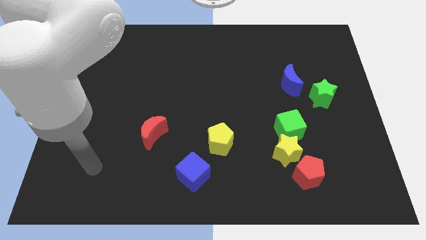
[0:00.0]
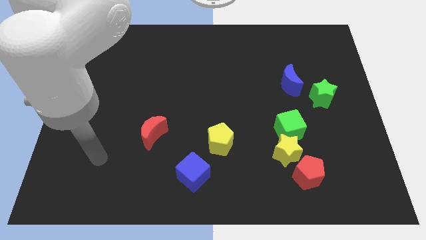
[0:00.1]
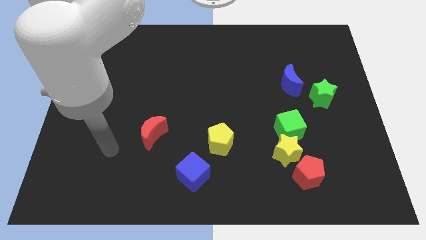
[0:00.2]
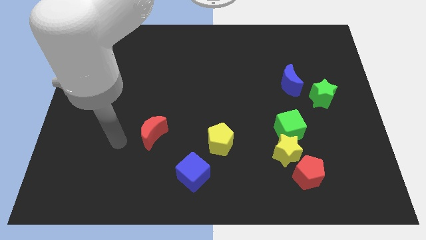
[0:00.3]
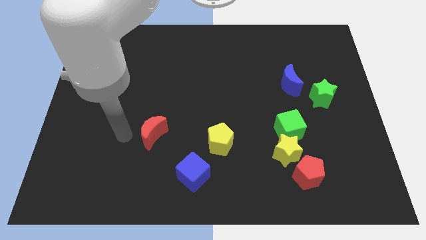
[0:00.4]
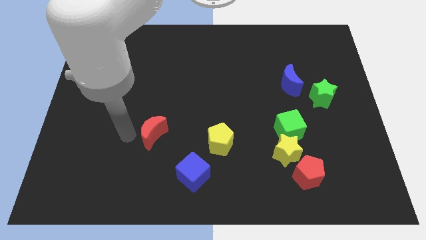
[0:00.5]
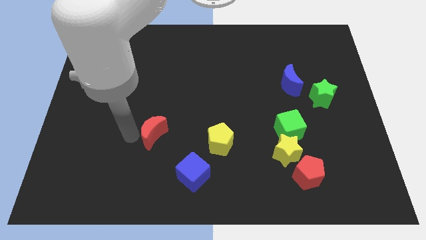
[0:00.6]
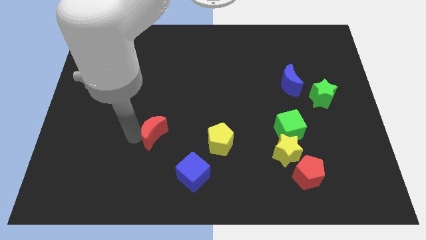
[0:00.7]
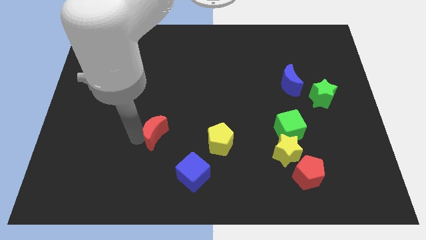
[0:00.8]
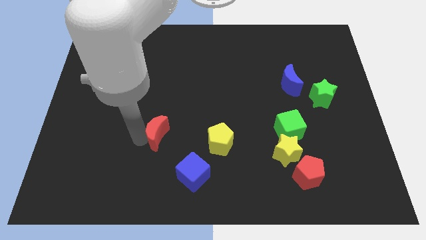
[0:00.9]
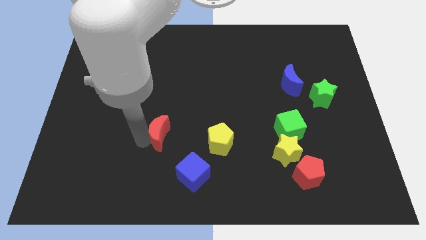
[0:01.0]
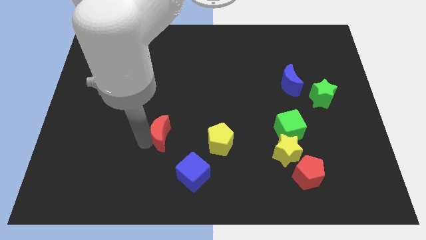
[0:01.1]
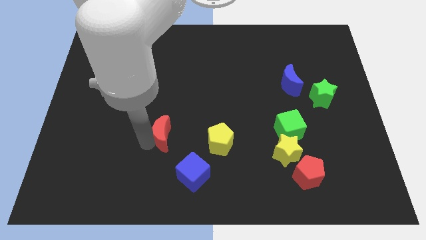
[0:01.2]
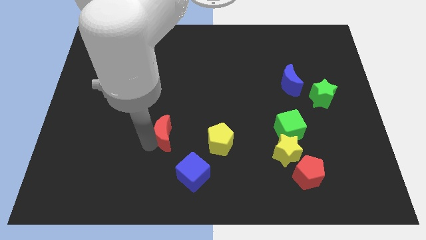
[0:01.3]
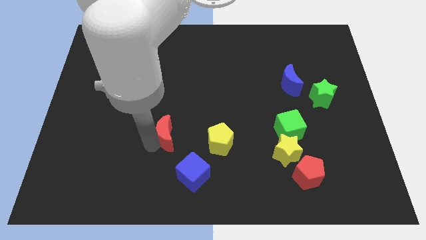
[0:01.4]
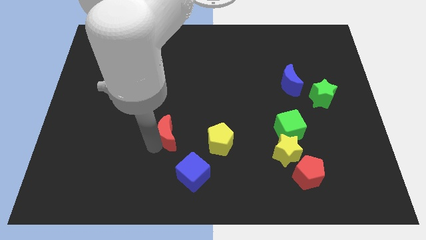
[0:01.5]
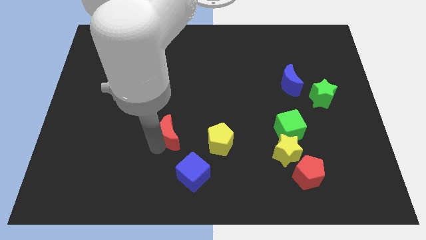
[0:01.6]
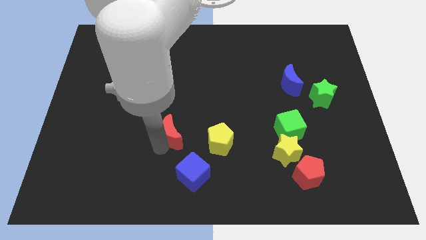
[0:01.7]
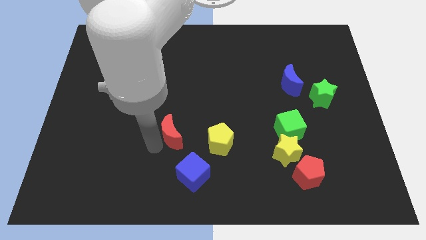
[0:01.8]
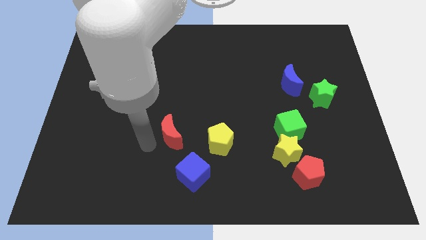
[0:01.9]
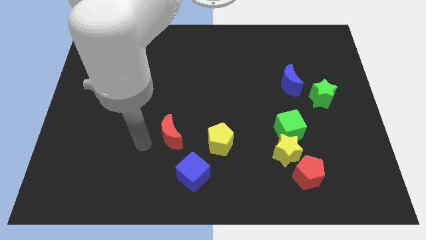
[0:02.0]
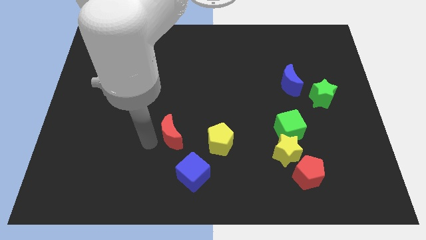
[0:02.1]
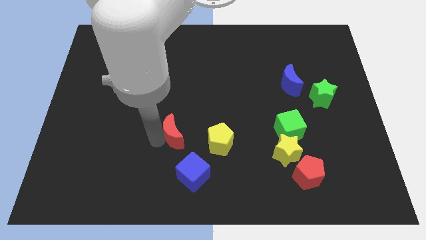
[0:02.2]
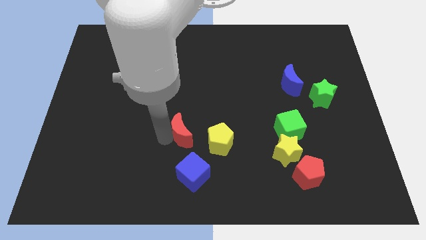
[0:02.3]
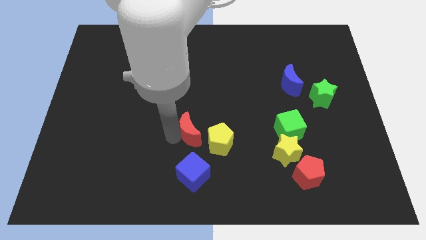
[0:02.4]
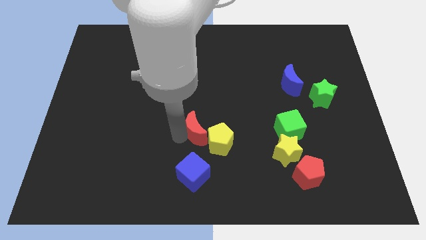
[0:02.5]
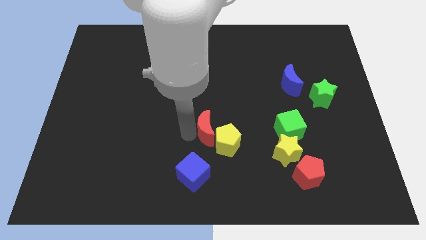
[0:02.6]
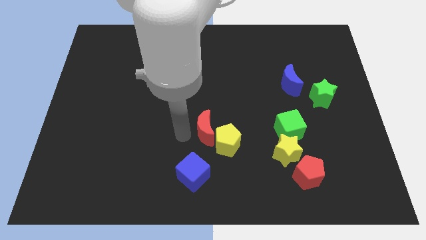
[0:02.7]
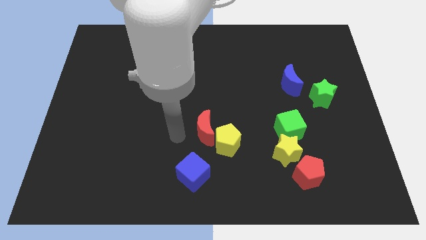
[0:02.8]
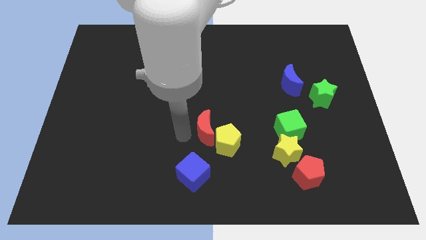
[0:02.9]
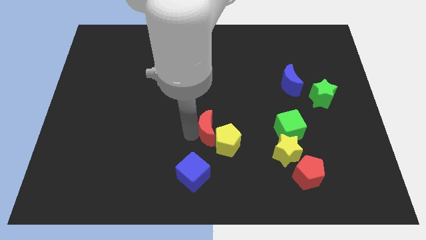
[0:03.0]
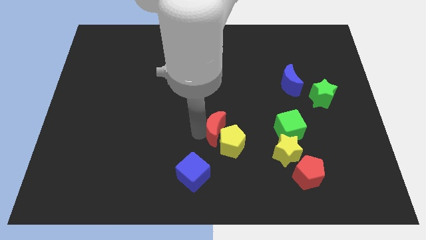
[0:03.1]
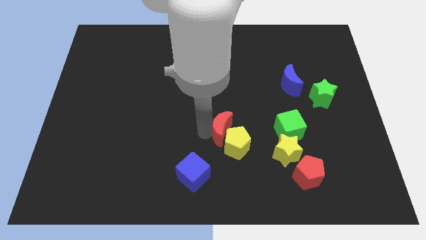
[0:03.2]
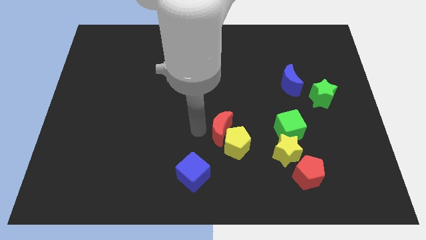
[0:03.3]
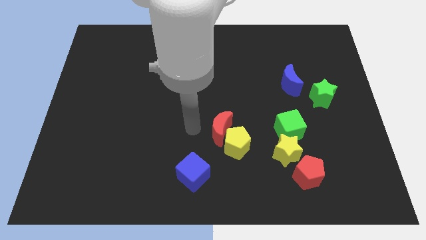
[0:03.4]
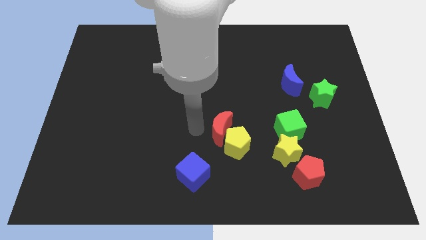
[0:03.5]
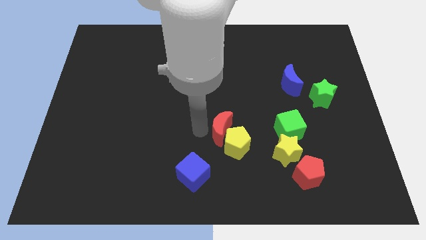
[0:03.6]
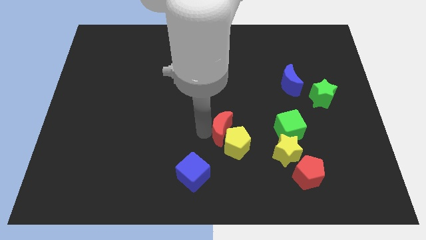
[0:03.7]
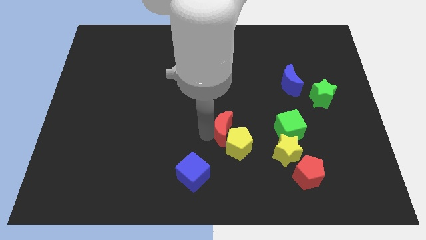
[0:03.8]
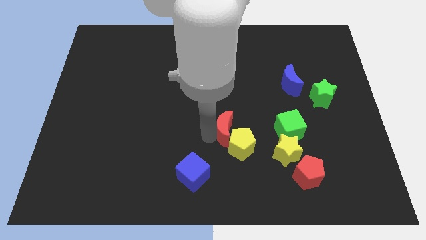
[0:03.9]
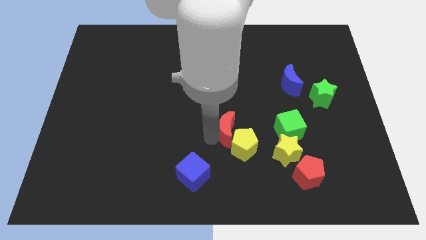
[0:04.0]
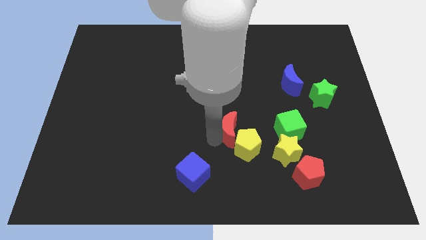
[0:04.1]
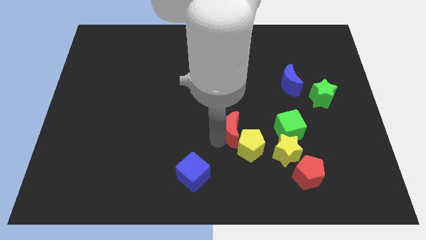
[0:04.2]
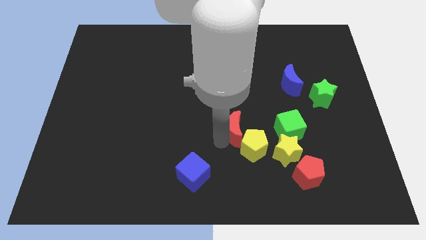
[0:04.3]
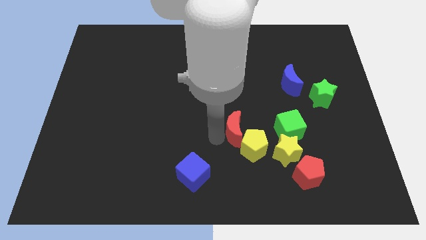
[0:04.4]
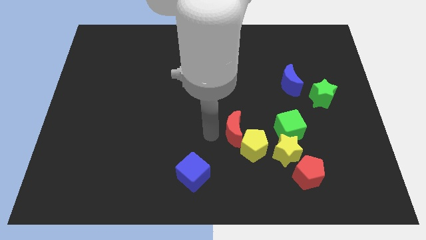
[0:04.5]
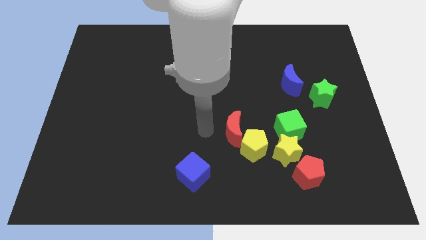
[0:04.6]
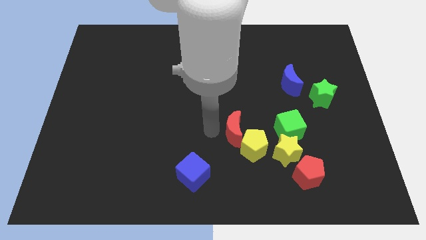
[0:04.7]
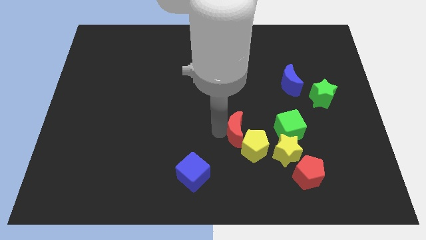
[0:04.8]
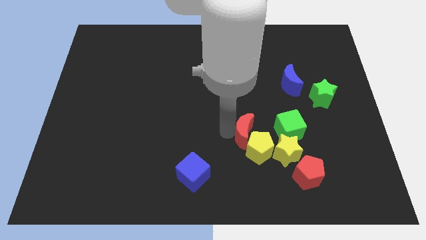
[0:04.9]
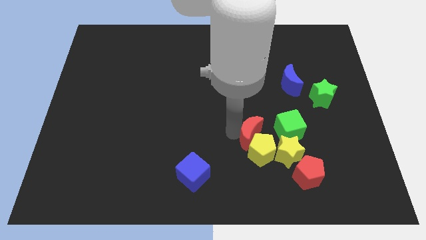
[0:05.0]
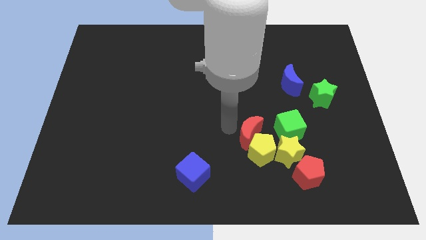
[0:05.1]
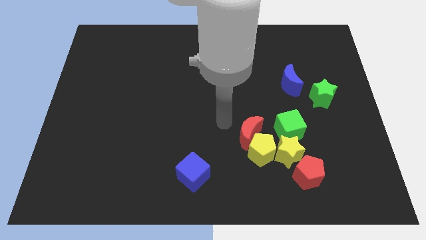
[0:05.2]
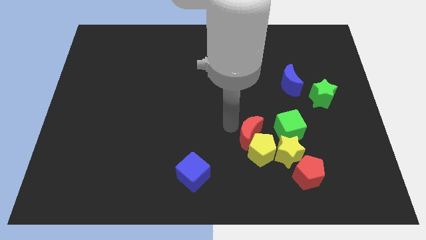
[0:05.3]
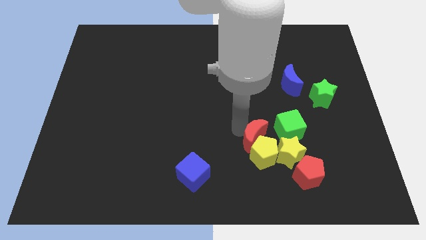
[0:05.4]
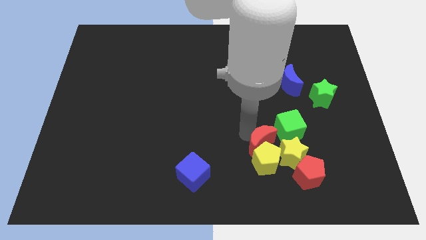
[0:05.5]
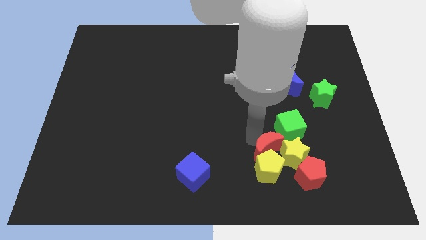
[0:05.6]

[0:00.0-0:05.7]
move the red moon to the yellow star

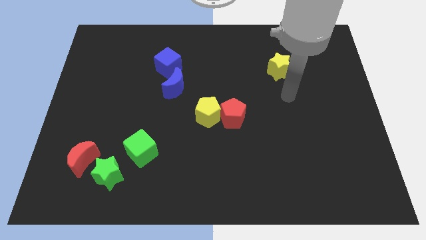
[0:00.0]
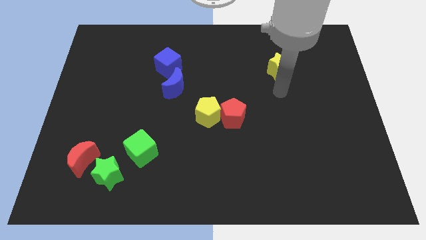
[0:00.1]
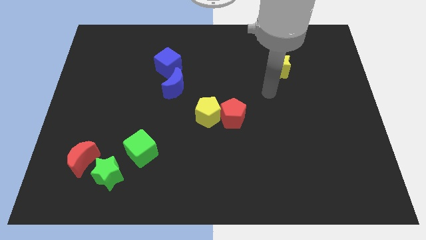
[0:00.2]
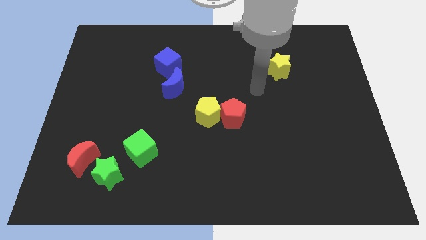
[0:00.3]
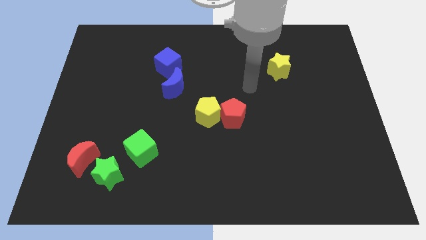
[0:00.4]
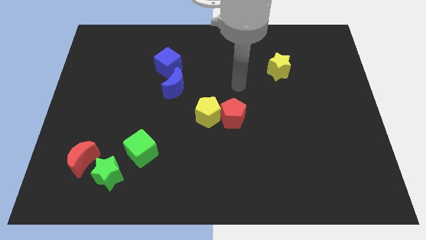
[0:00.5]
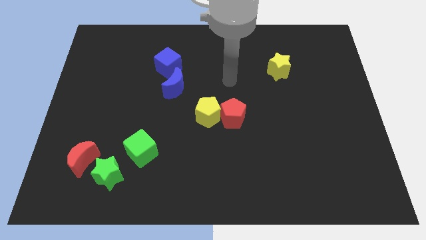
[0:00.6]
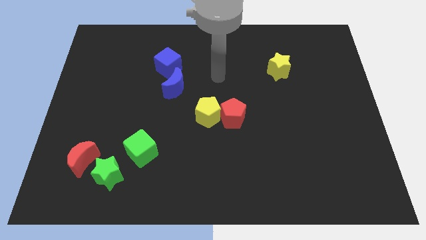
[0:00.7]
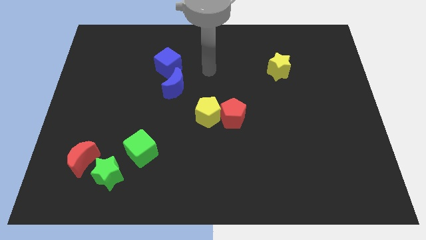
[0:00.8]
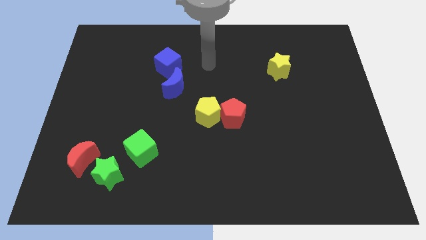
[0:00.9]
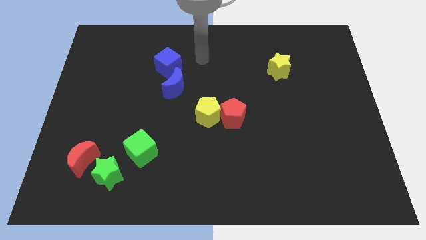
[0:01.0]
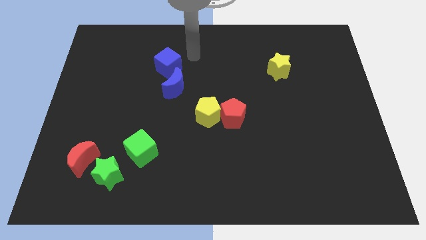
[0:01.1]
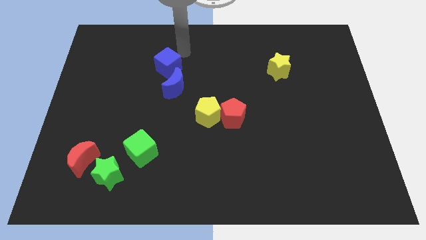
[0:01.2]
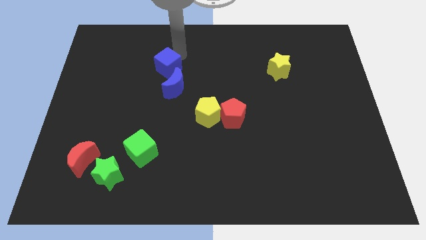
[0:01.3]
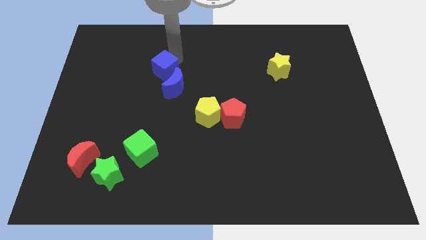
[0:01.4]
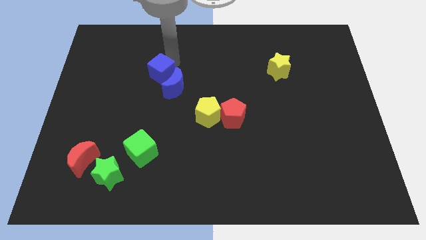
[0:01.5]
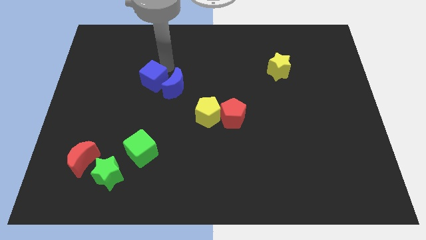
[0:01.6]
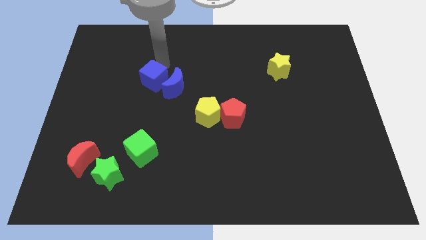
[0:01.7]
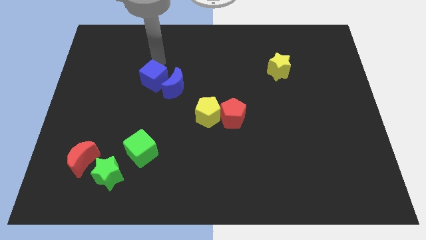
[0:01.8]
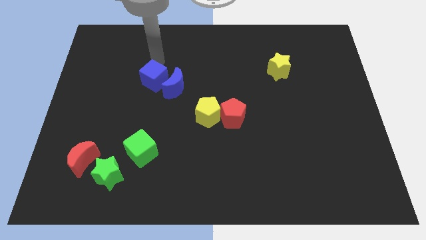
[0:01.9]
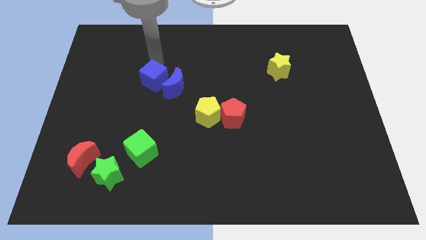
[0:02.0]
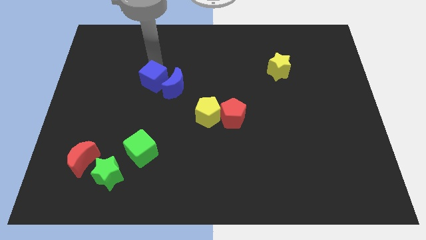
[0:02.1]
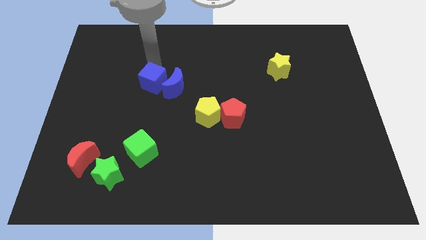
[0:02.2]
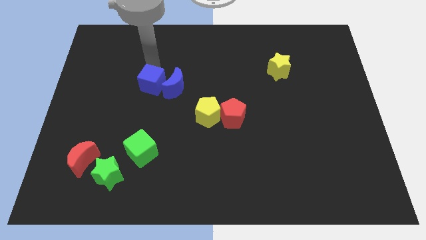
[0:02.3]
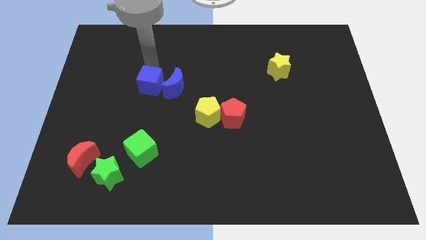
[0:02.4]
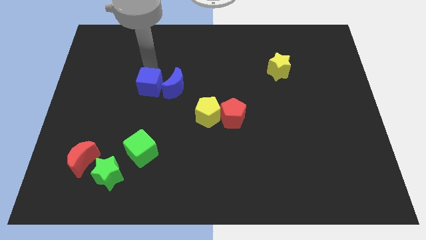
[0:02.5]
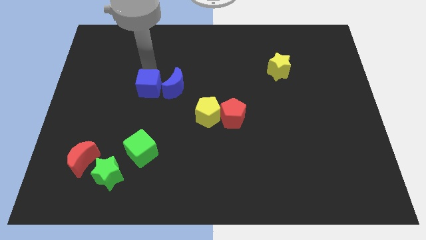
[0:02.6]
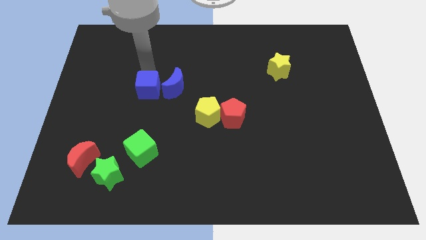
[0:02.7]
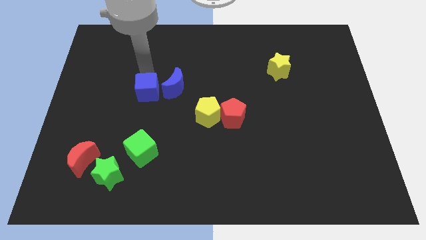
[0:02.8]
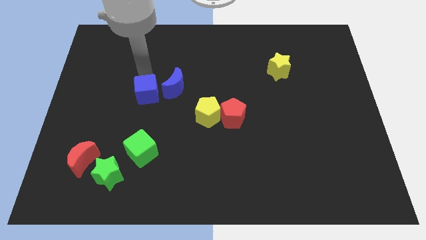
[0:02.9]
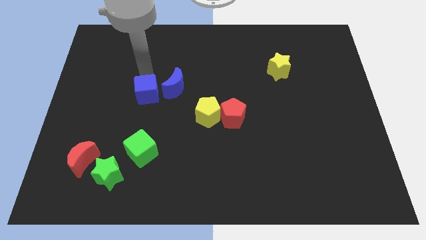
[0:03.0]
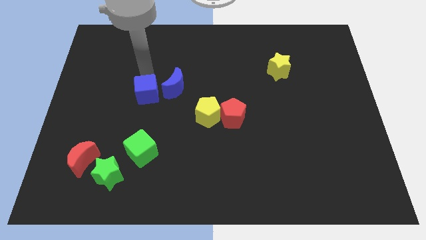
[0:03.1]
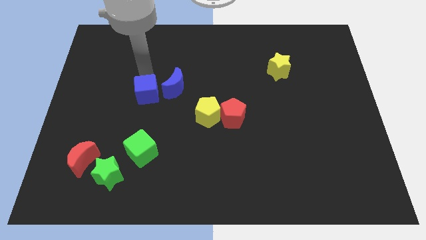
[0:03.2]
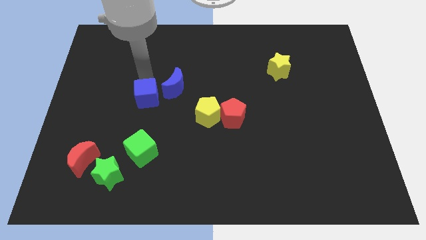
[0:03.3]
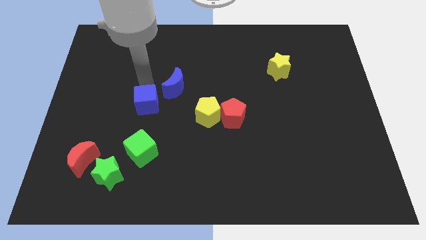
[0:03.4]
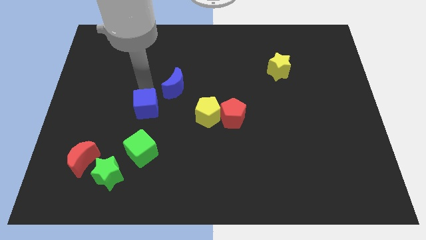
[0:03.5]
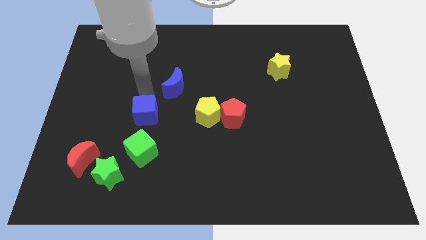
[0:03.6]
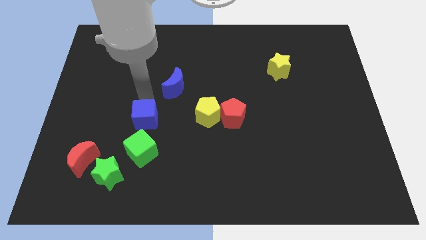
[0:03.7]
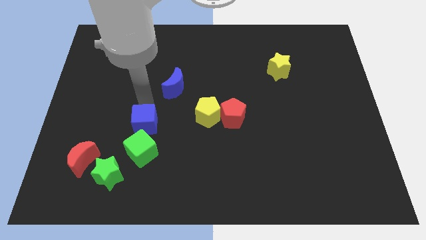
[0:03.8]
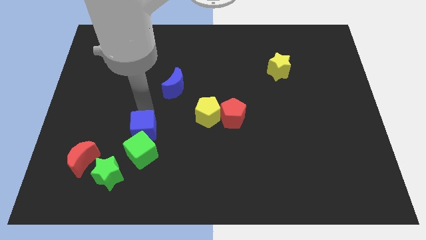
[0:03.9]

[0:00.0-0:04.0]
push the blue cube close to the green cube
